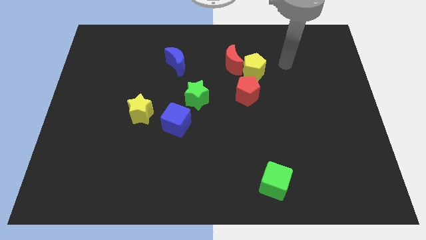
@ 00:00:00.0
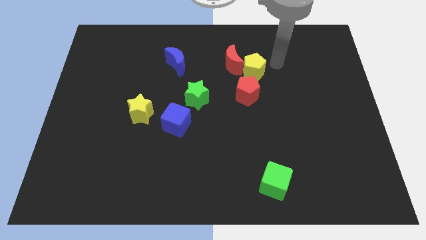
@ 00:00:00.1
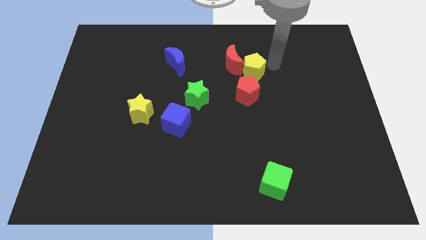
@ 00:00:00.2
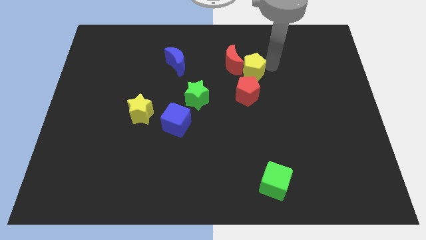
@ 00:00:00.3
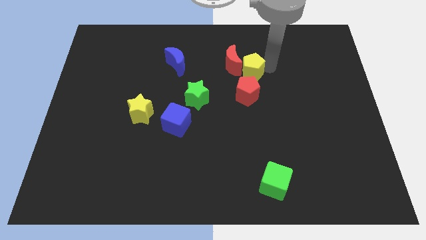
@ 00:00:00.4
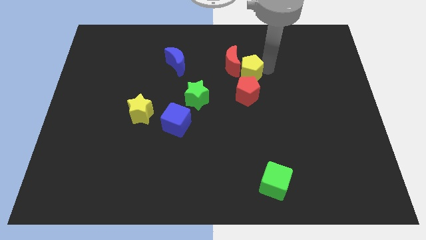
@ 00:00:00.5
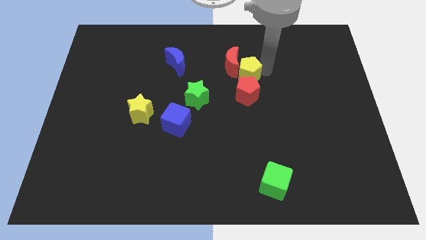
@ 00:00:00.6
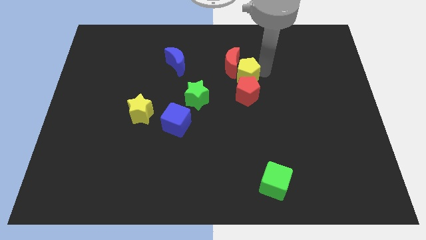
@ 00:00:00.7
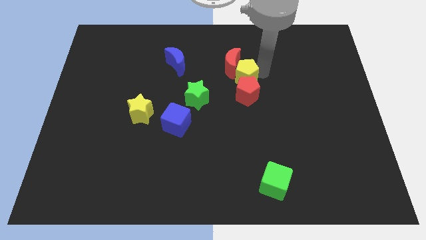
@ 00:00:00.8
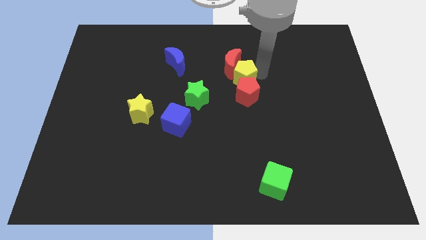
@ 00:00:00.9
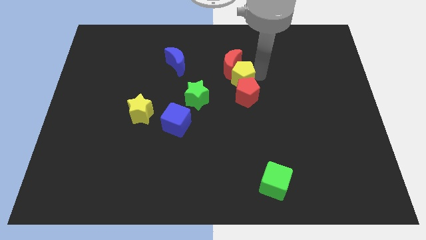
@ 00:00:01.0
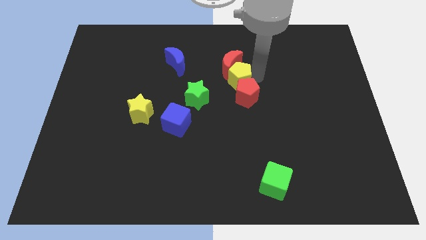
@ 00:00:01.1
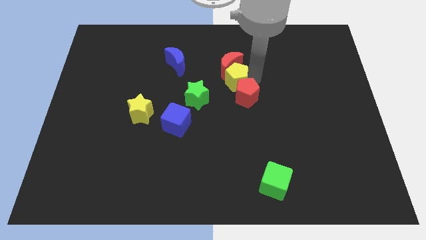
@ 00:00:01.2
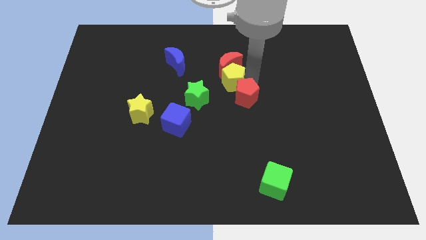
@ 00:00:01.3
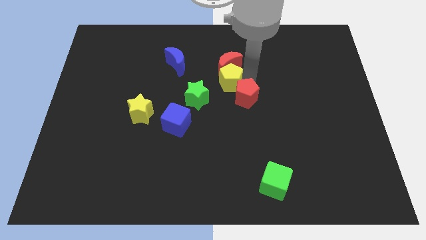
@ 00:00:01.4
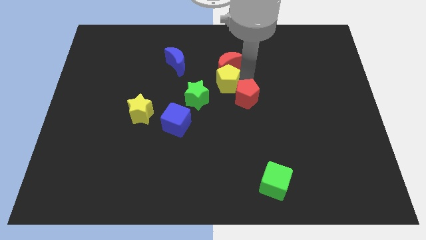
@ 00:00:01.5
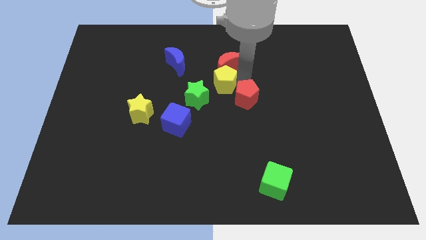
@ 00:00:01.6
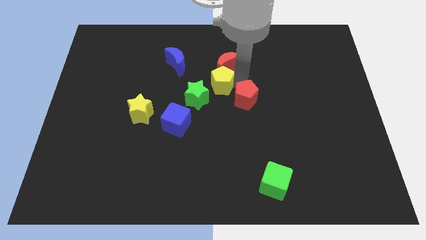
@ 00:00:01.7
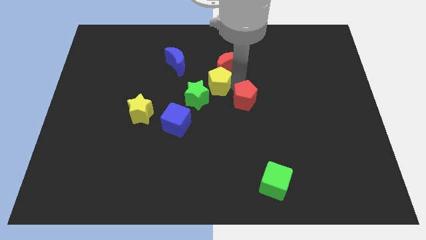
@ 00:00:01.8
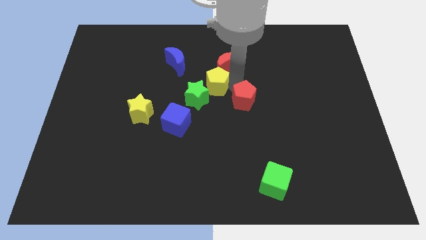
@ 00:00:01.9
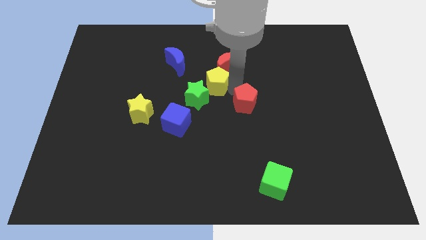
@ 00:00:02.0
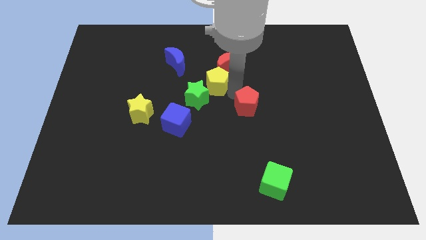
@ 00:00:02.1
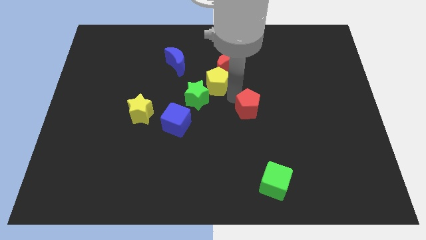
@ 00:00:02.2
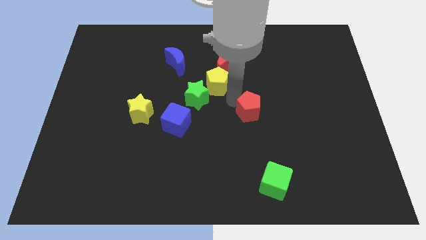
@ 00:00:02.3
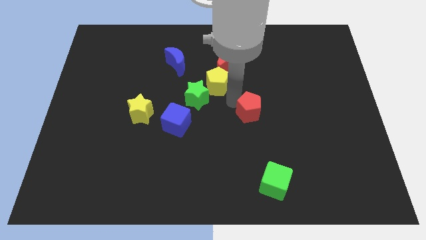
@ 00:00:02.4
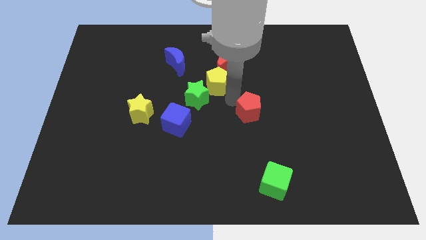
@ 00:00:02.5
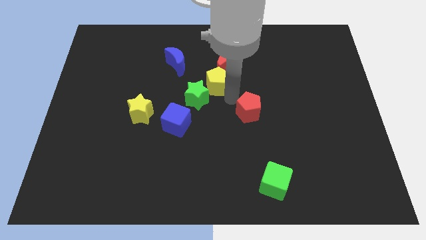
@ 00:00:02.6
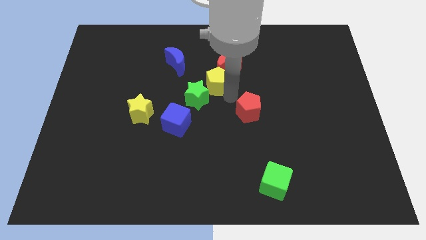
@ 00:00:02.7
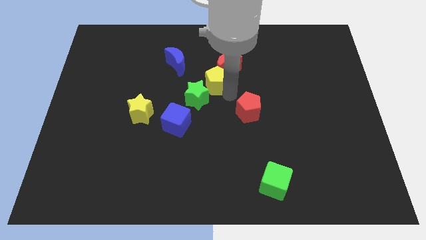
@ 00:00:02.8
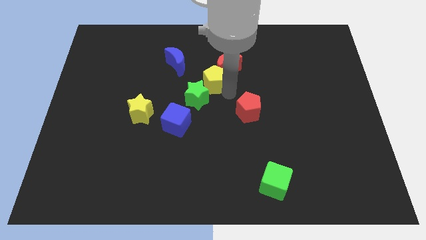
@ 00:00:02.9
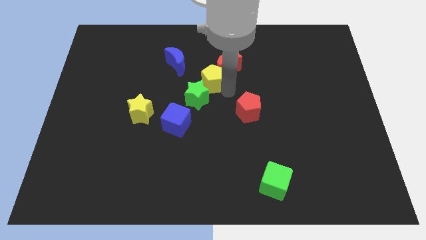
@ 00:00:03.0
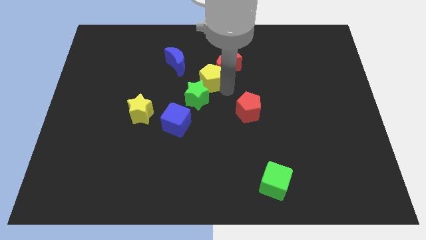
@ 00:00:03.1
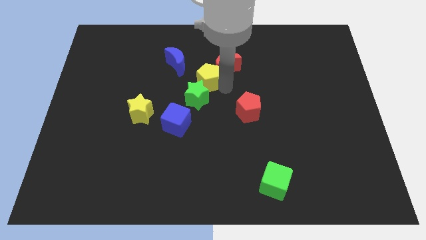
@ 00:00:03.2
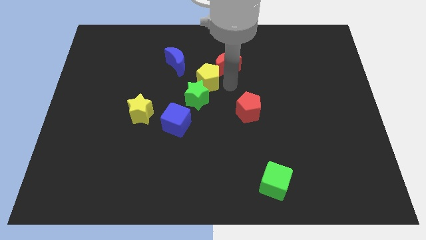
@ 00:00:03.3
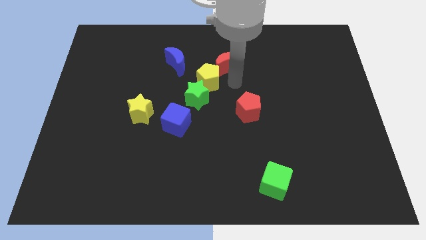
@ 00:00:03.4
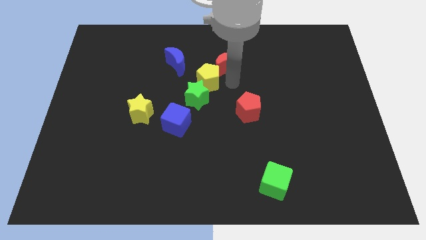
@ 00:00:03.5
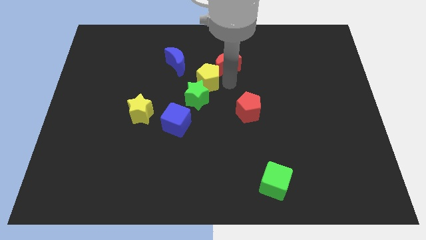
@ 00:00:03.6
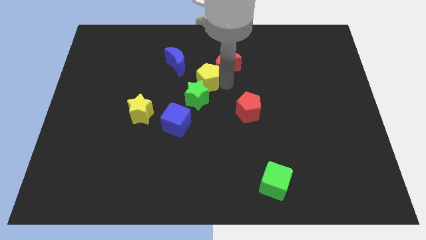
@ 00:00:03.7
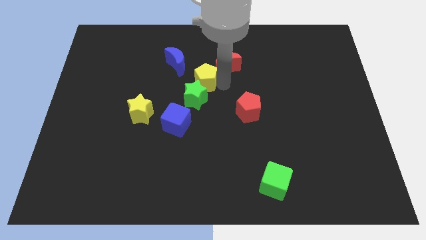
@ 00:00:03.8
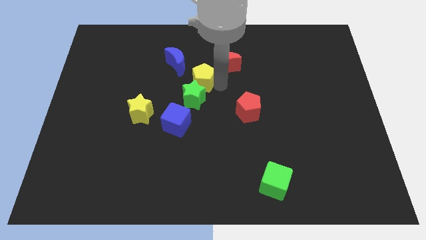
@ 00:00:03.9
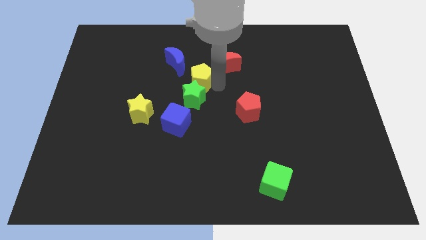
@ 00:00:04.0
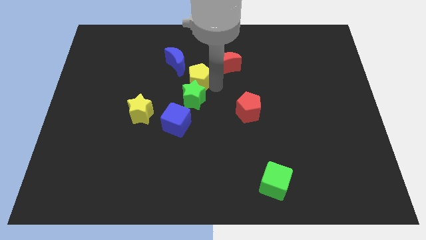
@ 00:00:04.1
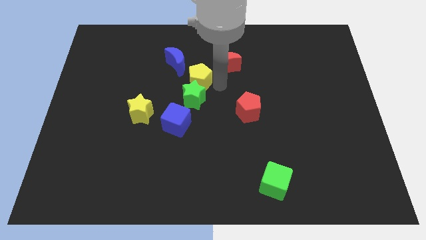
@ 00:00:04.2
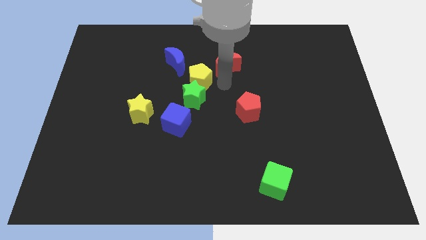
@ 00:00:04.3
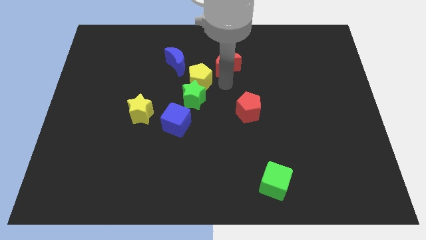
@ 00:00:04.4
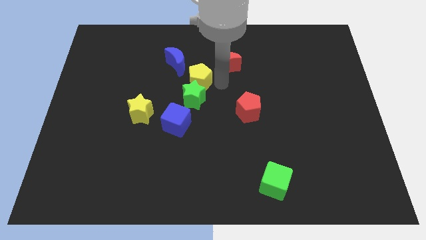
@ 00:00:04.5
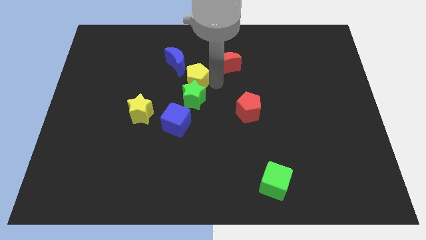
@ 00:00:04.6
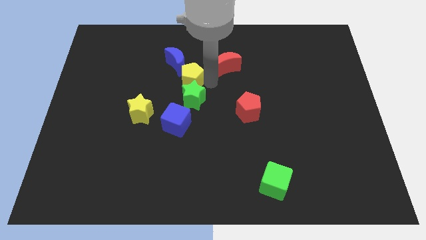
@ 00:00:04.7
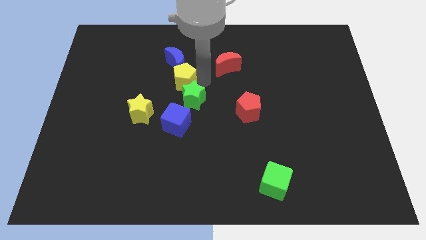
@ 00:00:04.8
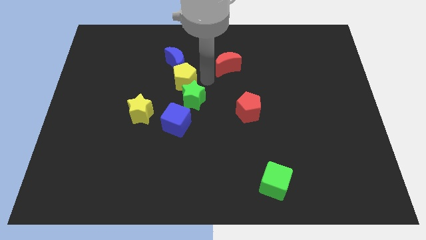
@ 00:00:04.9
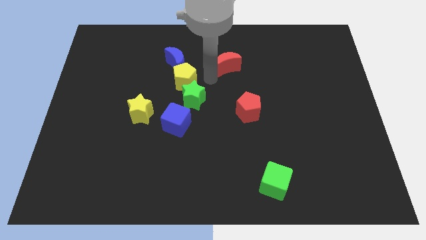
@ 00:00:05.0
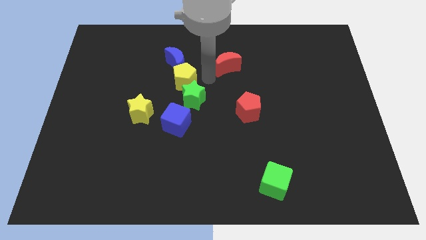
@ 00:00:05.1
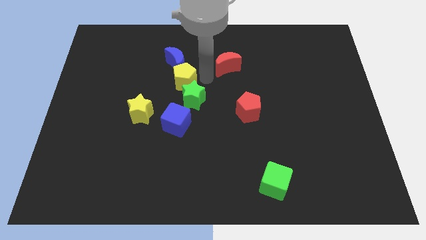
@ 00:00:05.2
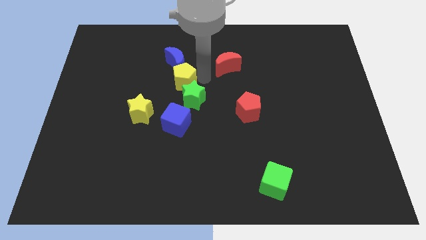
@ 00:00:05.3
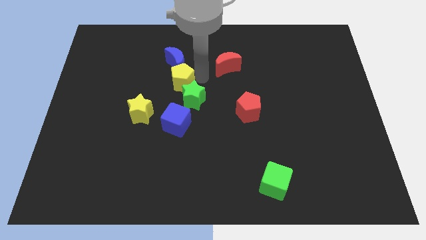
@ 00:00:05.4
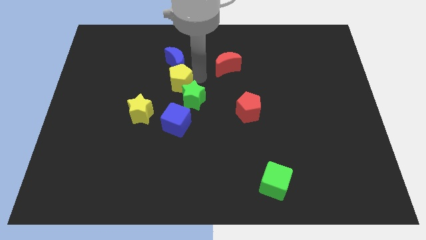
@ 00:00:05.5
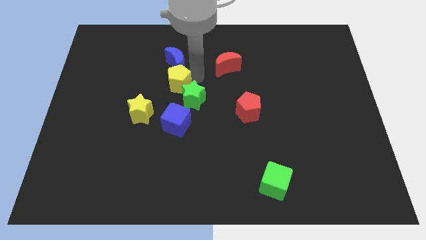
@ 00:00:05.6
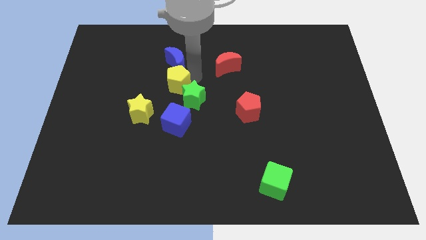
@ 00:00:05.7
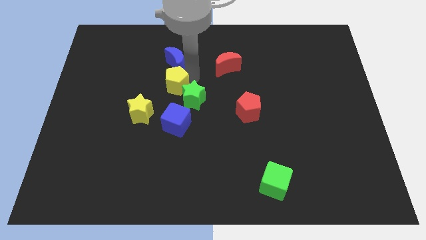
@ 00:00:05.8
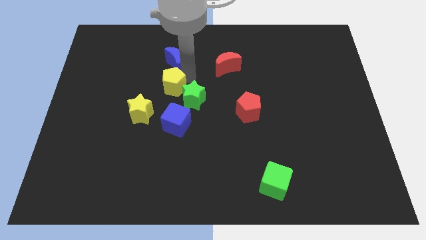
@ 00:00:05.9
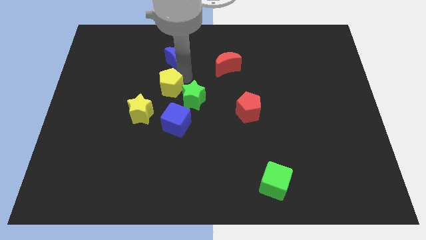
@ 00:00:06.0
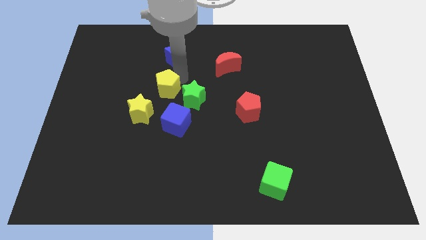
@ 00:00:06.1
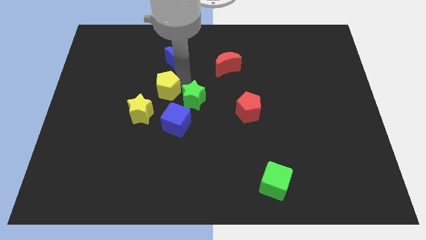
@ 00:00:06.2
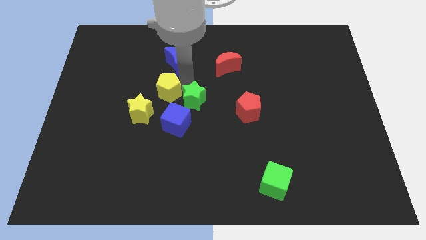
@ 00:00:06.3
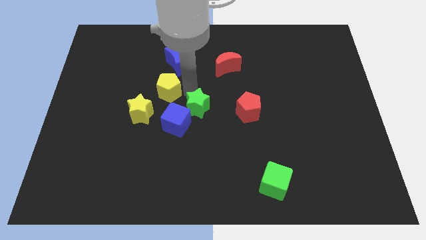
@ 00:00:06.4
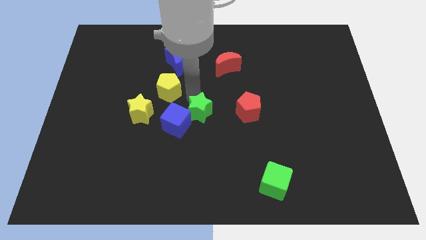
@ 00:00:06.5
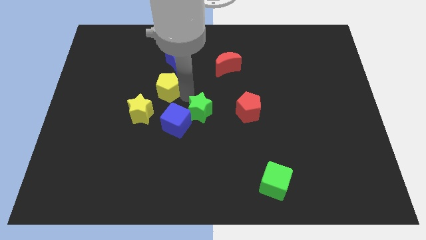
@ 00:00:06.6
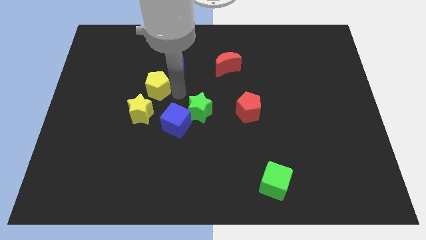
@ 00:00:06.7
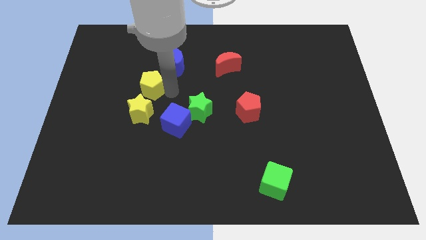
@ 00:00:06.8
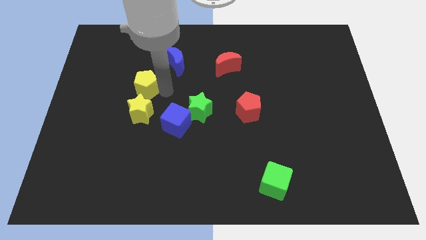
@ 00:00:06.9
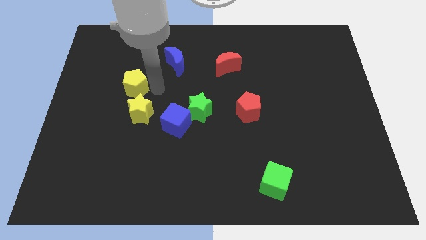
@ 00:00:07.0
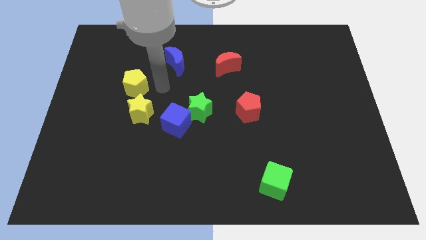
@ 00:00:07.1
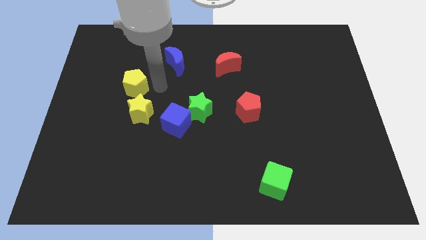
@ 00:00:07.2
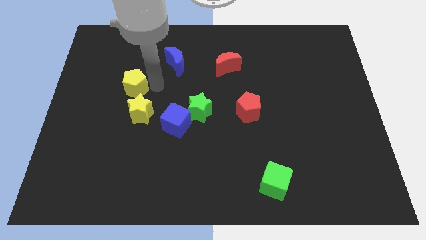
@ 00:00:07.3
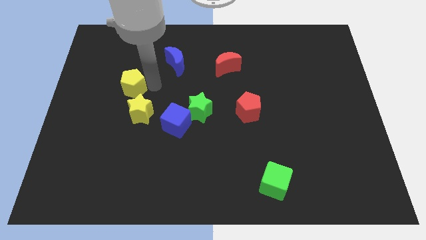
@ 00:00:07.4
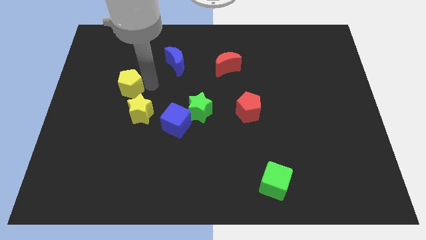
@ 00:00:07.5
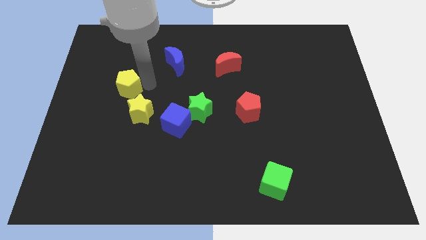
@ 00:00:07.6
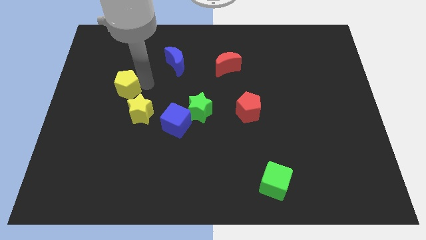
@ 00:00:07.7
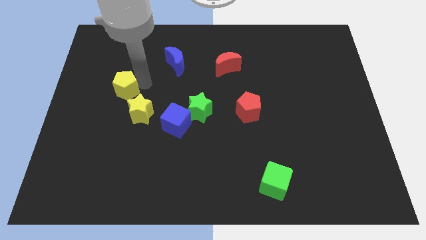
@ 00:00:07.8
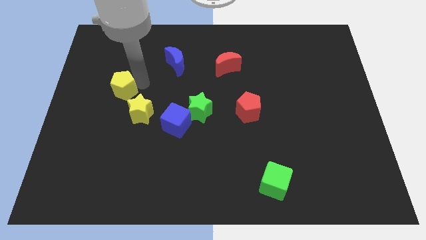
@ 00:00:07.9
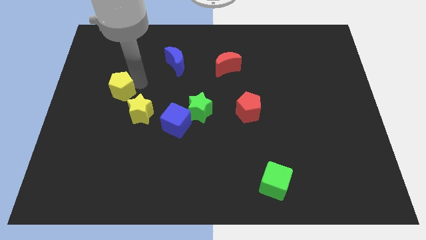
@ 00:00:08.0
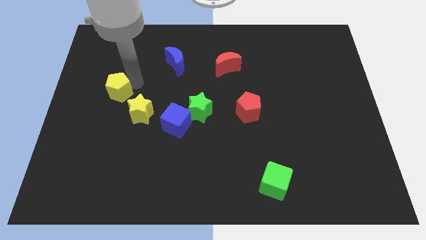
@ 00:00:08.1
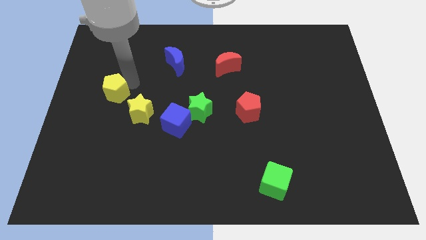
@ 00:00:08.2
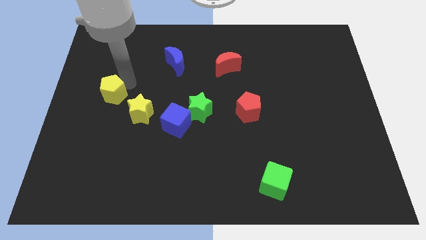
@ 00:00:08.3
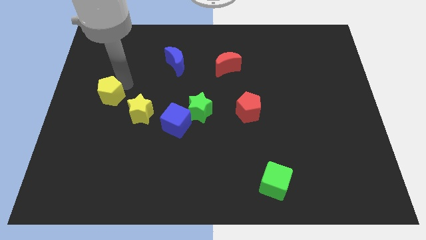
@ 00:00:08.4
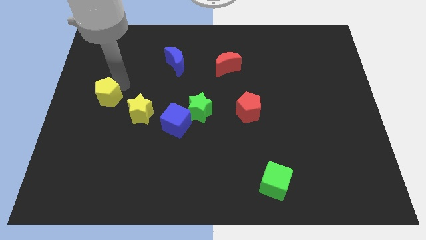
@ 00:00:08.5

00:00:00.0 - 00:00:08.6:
put the yellow pentagon to the center left
